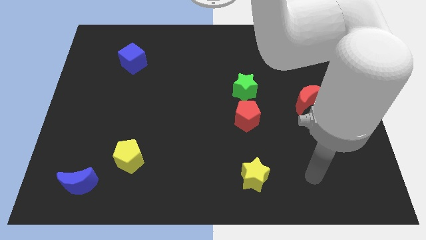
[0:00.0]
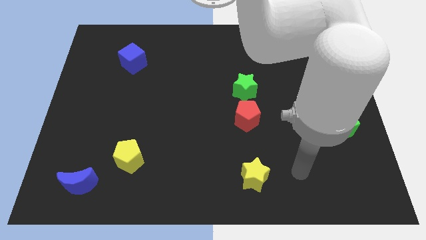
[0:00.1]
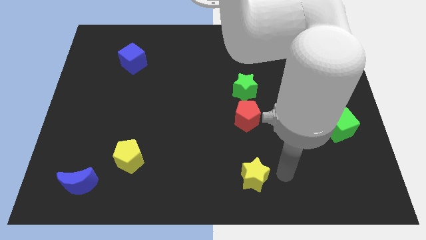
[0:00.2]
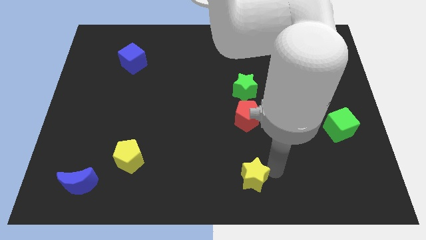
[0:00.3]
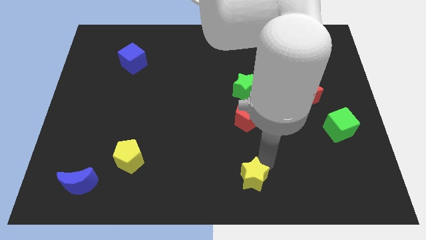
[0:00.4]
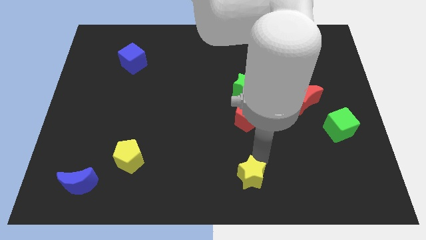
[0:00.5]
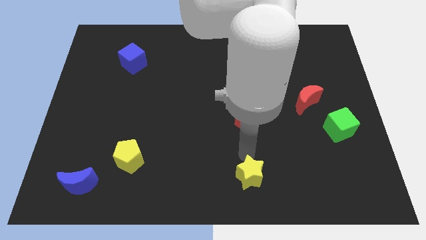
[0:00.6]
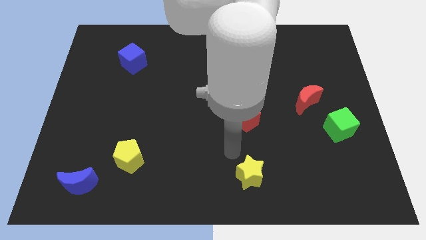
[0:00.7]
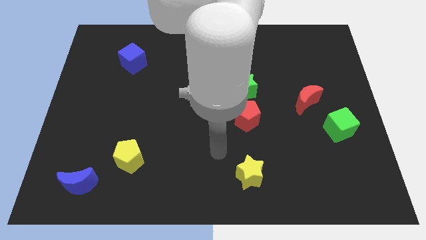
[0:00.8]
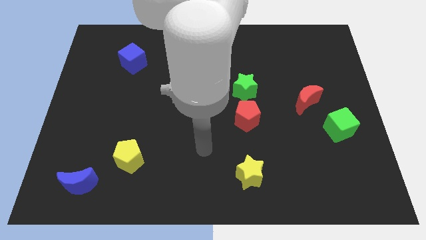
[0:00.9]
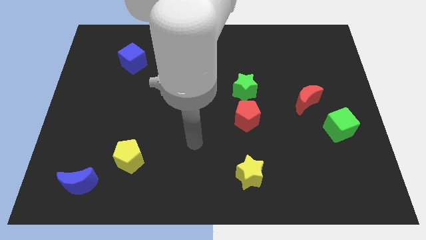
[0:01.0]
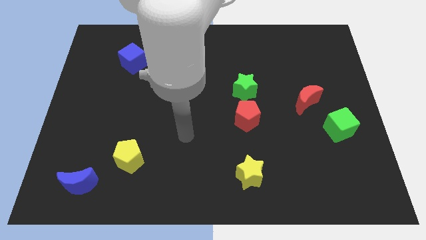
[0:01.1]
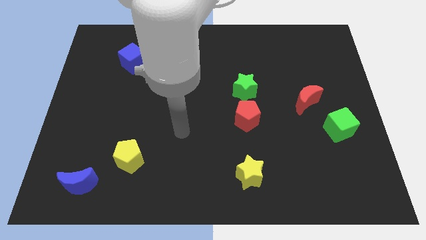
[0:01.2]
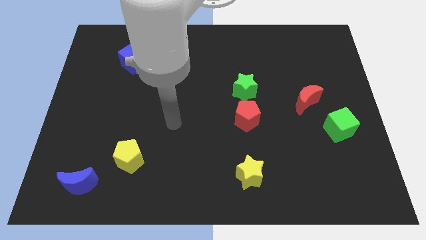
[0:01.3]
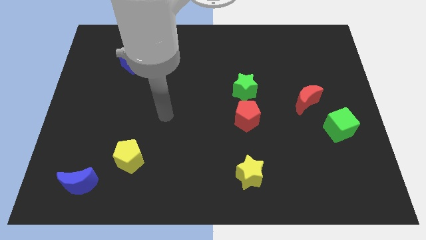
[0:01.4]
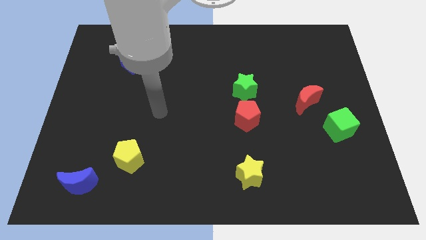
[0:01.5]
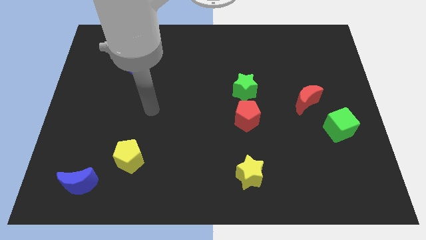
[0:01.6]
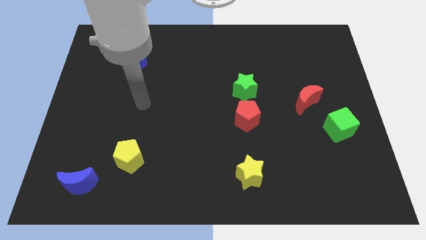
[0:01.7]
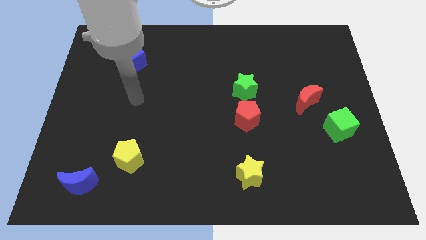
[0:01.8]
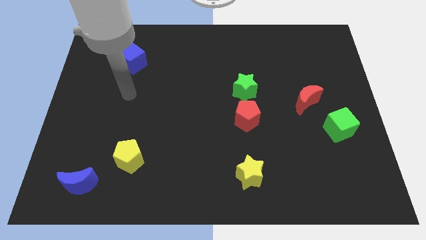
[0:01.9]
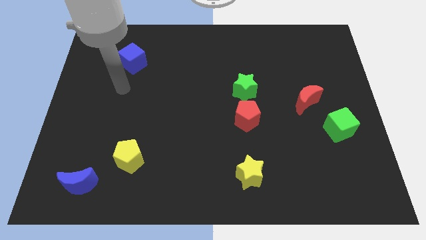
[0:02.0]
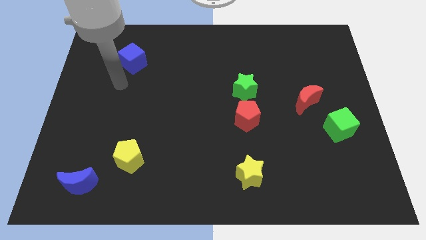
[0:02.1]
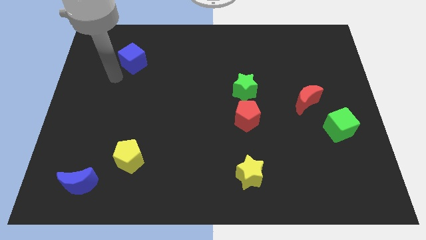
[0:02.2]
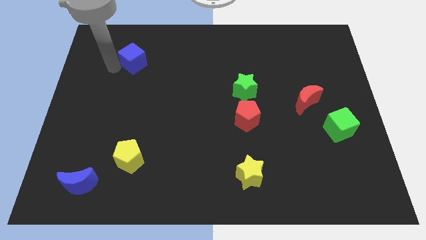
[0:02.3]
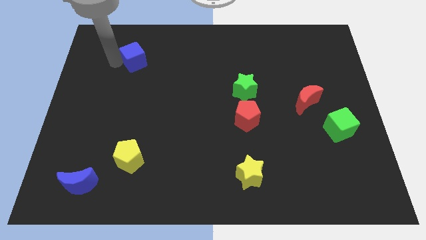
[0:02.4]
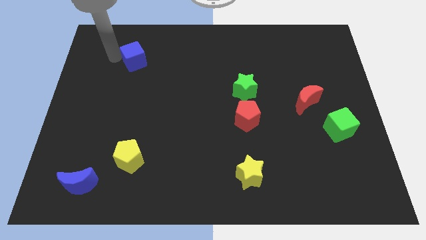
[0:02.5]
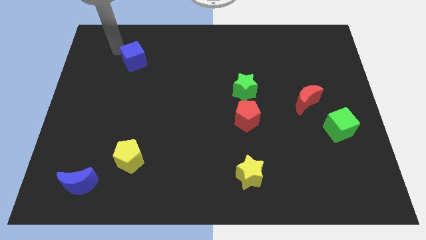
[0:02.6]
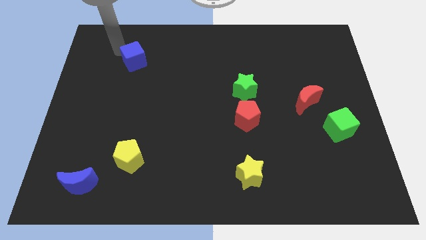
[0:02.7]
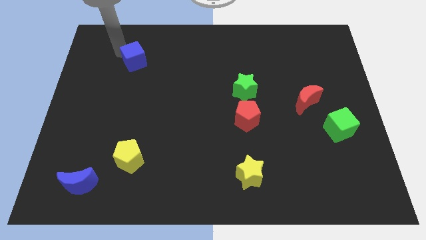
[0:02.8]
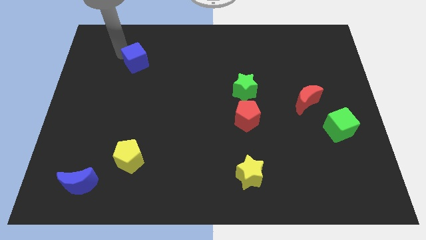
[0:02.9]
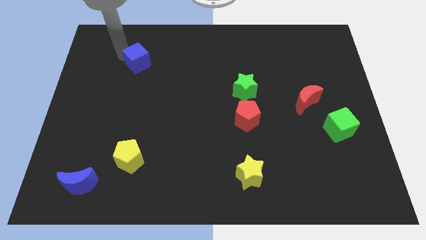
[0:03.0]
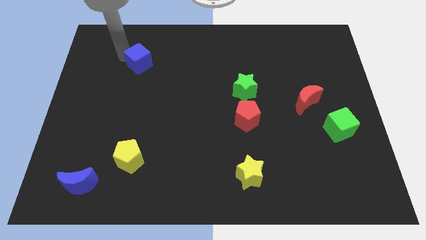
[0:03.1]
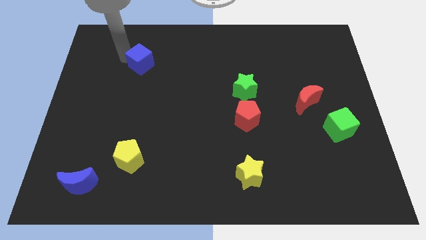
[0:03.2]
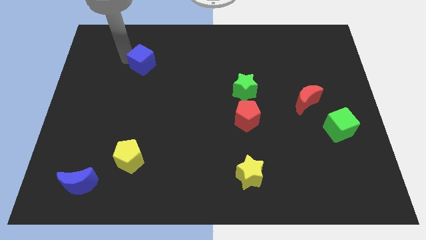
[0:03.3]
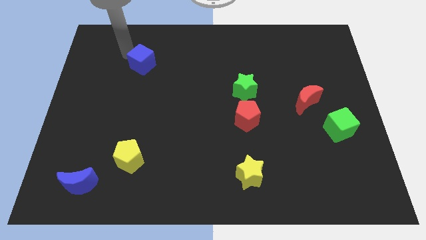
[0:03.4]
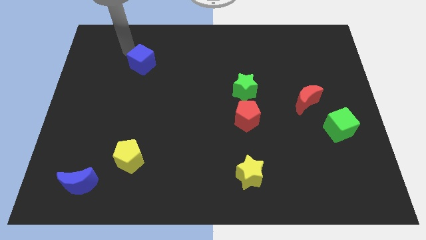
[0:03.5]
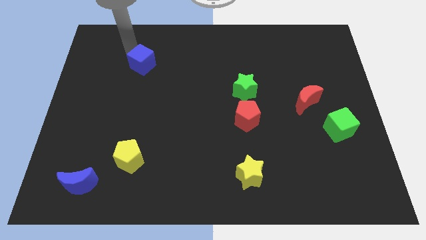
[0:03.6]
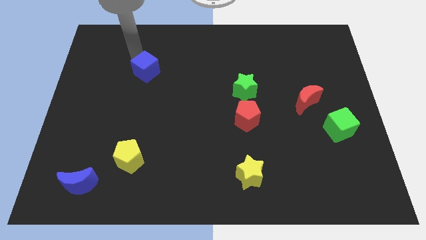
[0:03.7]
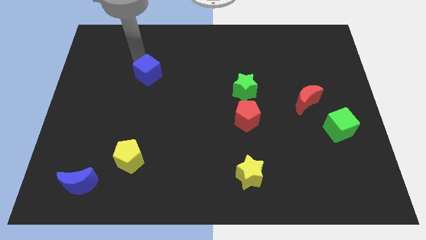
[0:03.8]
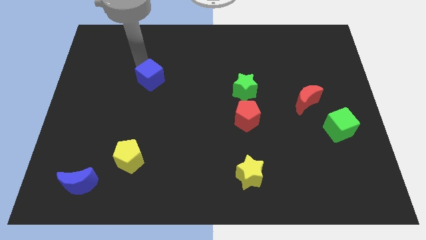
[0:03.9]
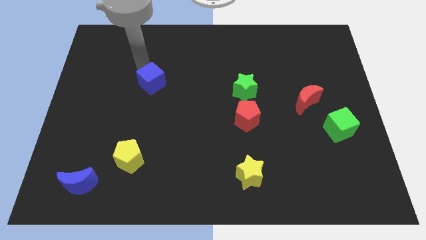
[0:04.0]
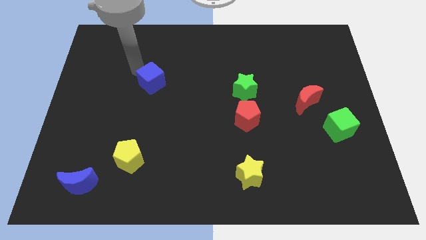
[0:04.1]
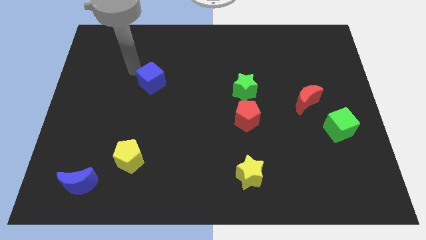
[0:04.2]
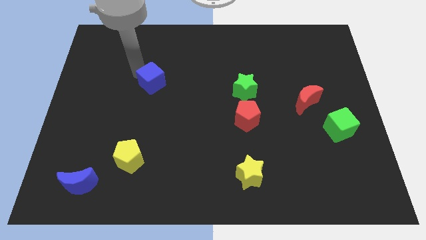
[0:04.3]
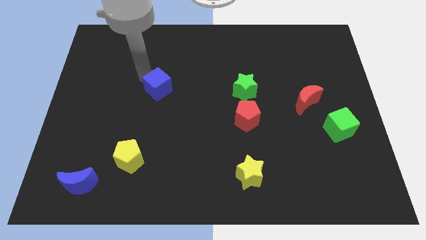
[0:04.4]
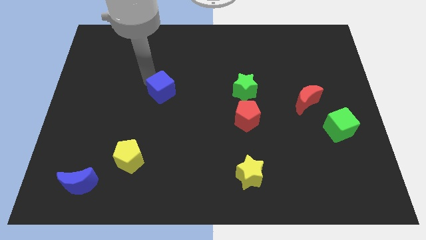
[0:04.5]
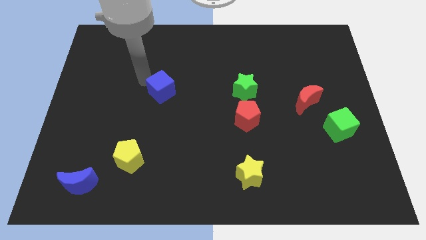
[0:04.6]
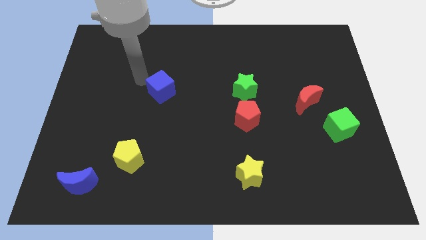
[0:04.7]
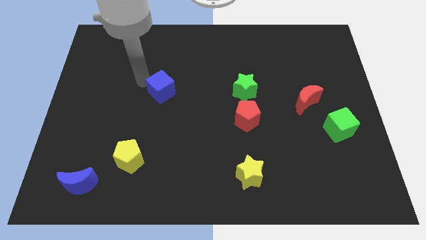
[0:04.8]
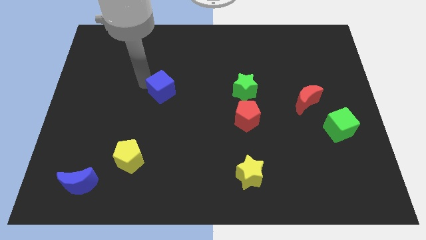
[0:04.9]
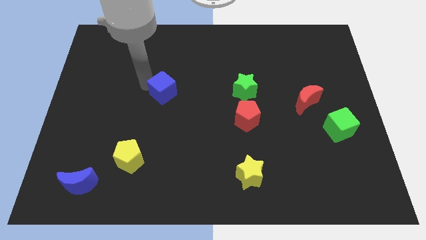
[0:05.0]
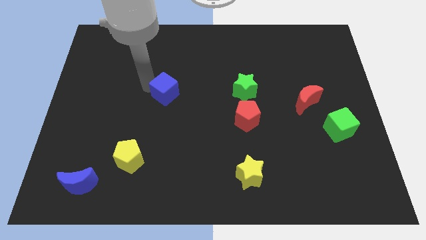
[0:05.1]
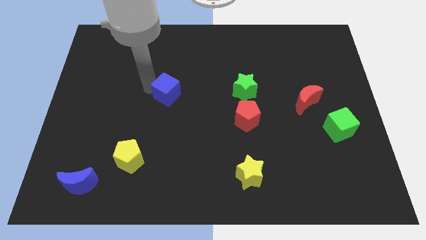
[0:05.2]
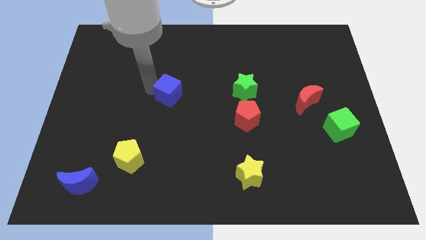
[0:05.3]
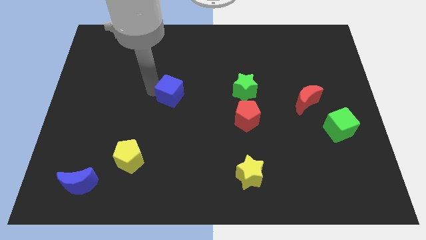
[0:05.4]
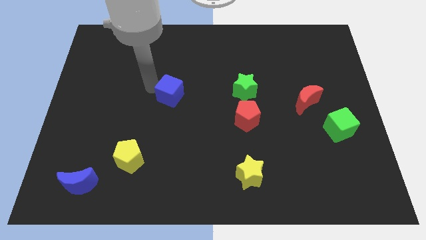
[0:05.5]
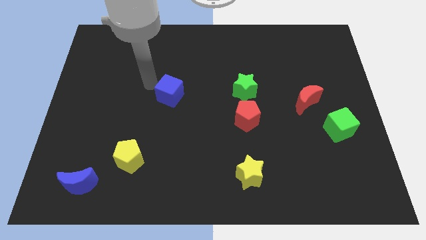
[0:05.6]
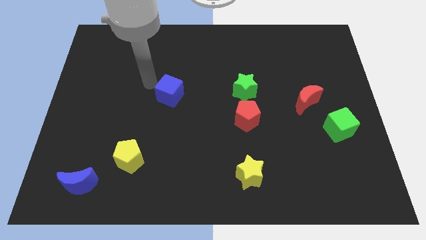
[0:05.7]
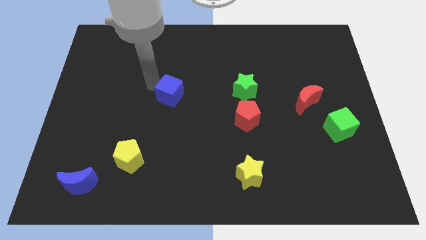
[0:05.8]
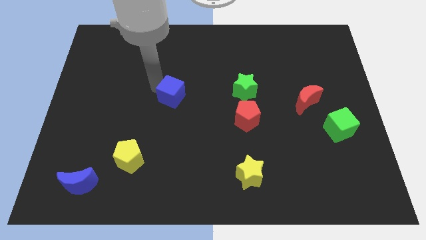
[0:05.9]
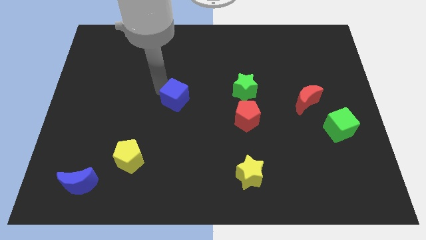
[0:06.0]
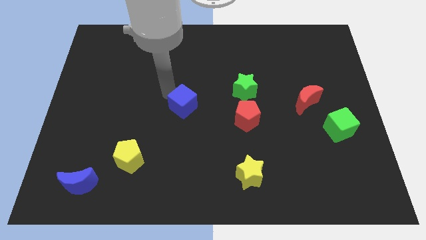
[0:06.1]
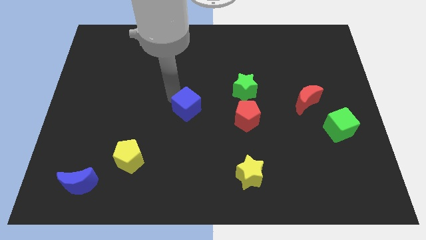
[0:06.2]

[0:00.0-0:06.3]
move the blue cube to the left of the red pentagon

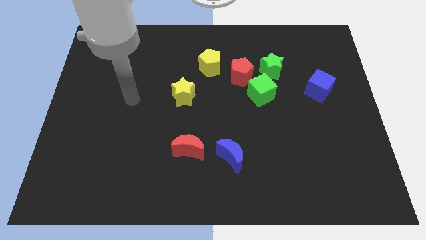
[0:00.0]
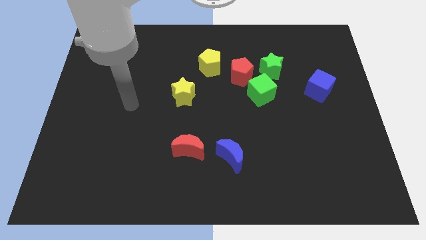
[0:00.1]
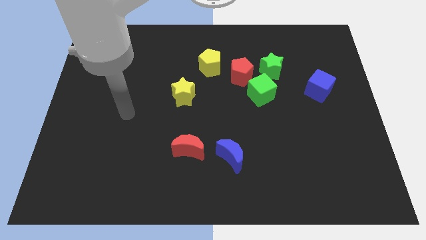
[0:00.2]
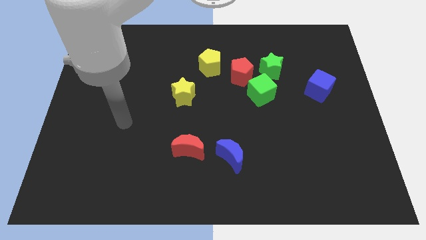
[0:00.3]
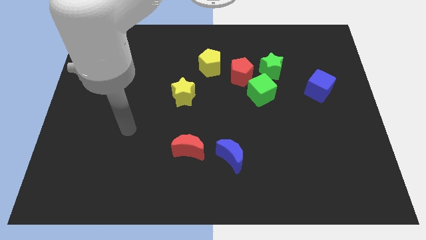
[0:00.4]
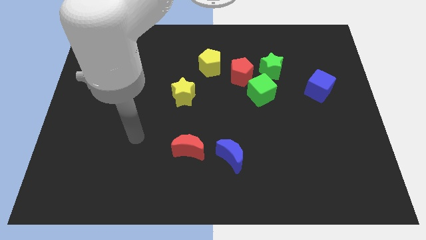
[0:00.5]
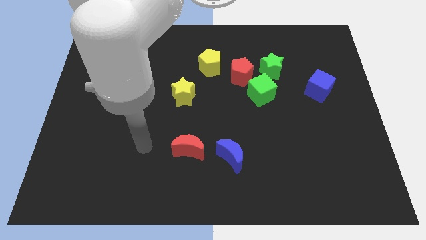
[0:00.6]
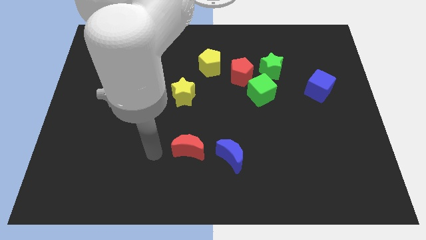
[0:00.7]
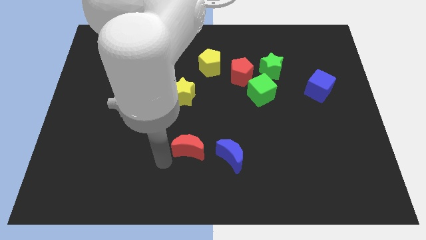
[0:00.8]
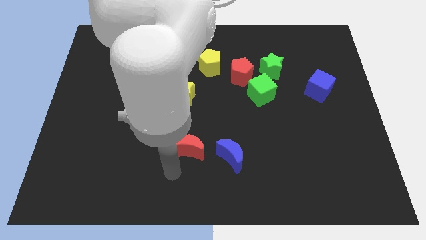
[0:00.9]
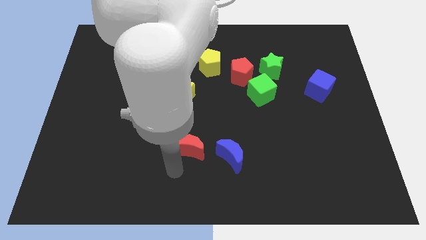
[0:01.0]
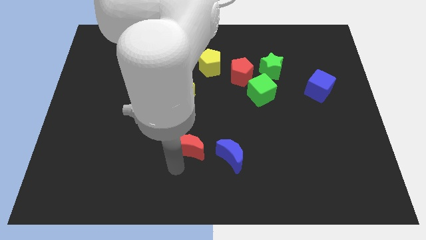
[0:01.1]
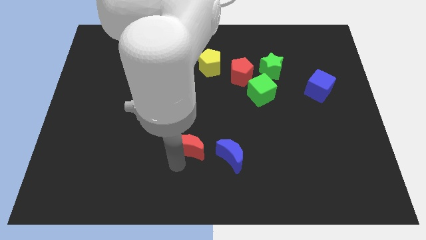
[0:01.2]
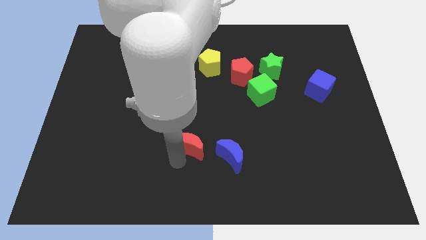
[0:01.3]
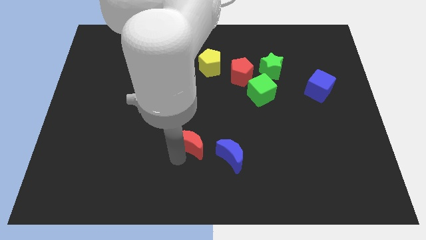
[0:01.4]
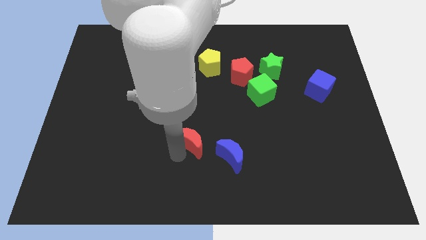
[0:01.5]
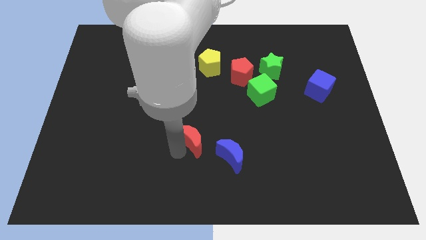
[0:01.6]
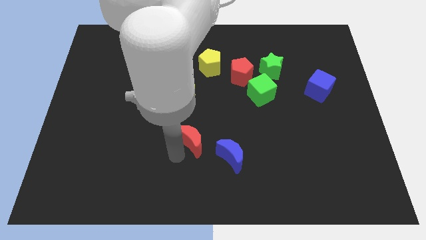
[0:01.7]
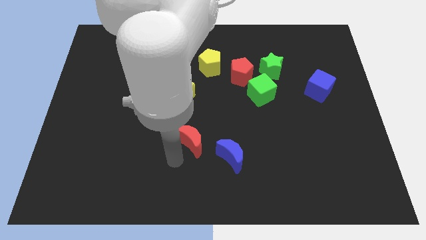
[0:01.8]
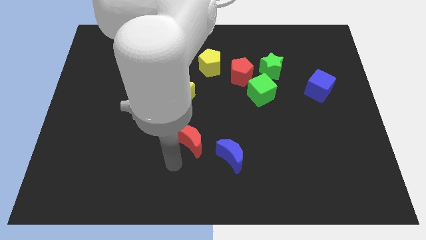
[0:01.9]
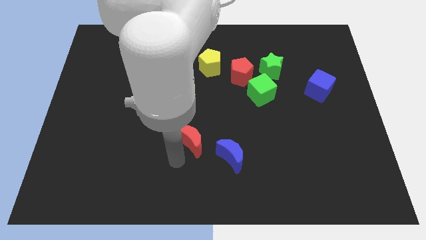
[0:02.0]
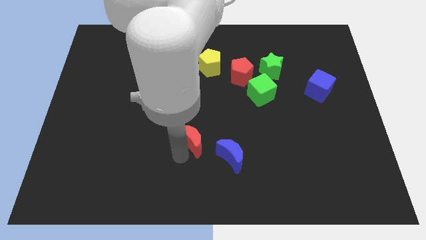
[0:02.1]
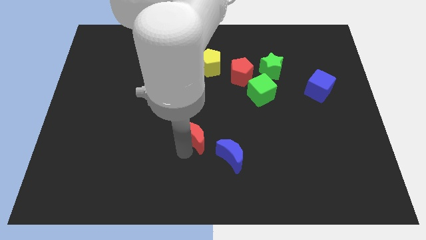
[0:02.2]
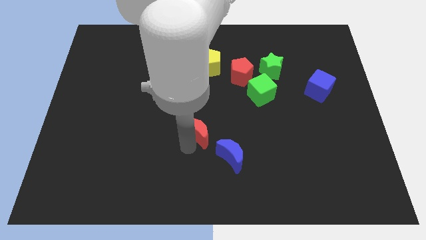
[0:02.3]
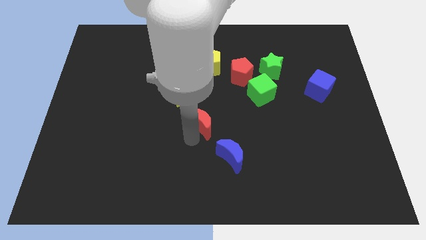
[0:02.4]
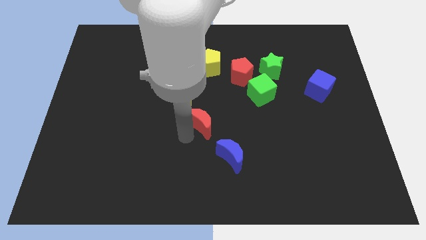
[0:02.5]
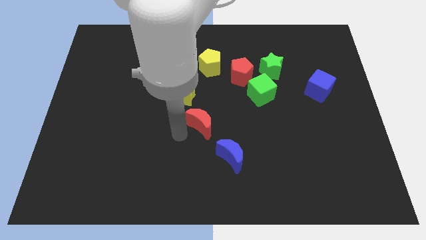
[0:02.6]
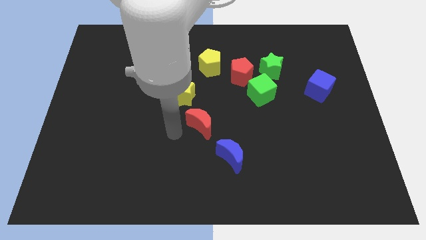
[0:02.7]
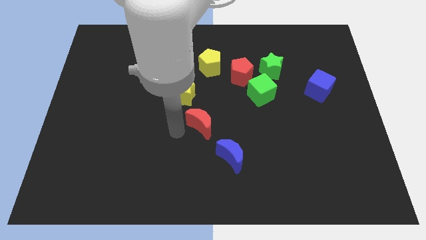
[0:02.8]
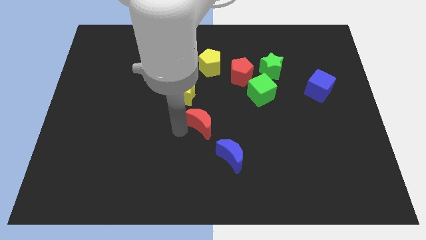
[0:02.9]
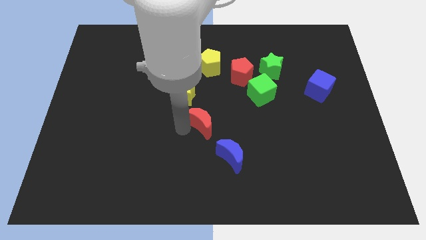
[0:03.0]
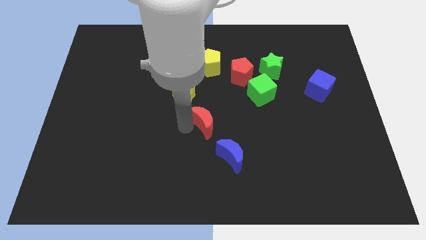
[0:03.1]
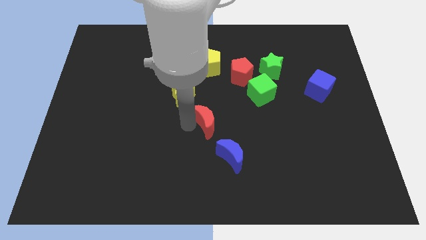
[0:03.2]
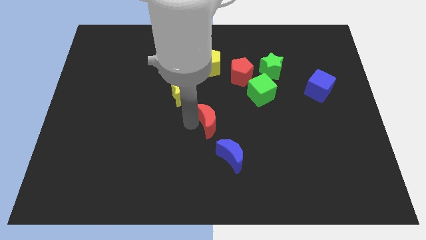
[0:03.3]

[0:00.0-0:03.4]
slide the red moon to the top side of the blue moon
